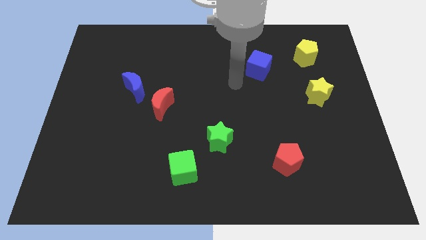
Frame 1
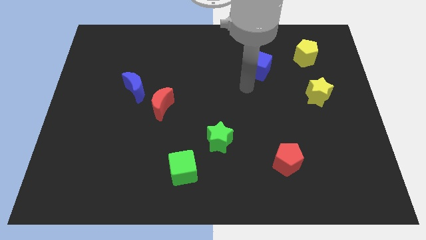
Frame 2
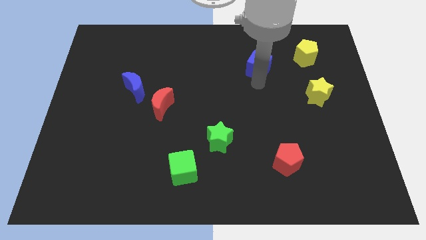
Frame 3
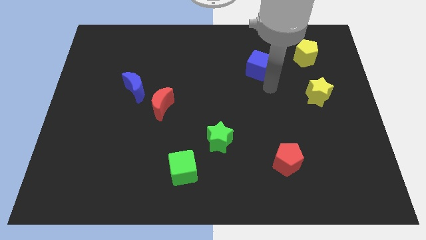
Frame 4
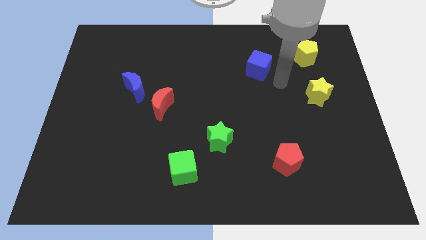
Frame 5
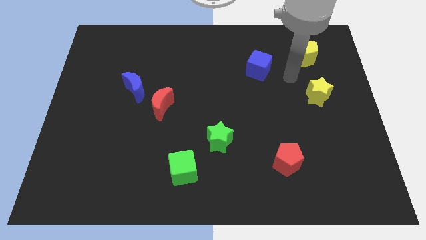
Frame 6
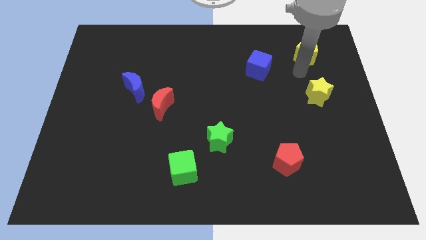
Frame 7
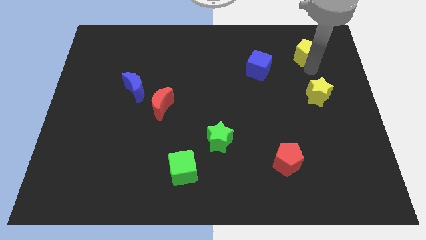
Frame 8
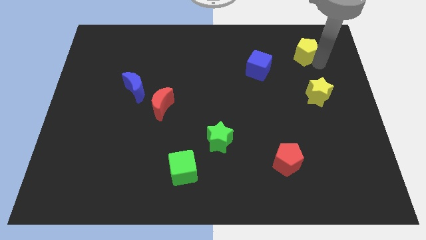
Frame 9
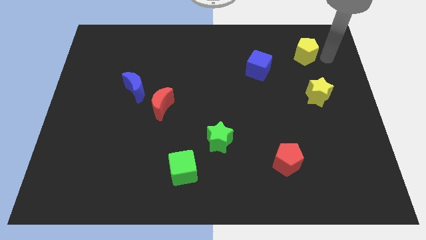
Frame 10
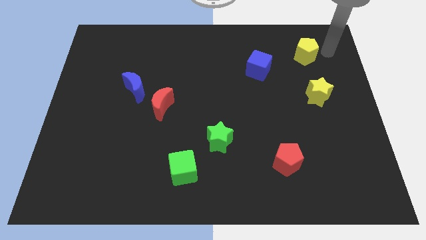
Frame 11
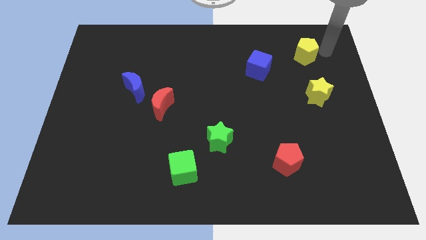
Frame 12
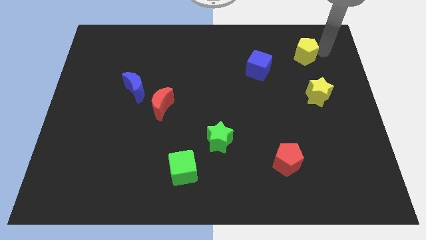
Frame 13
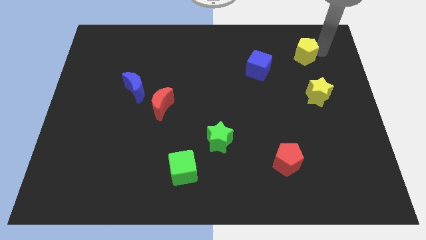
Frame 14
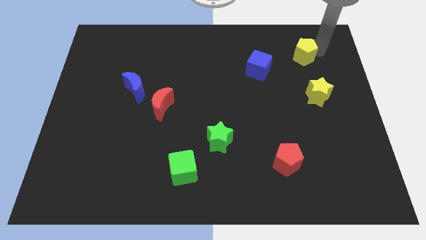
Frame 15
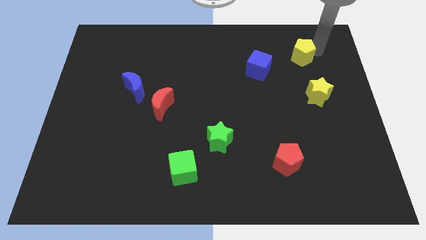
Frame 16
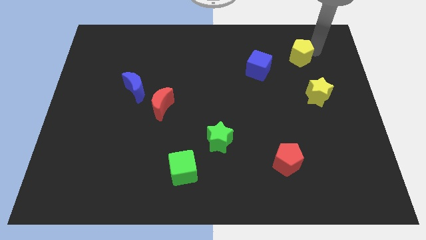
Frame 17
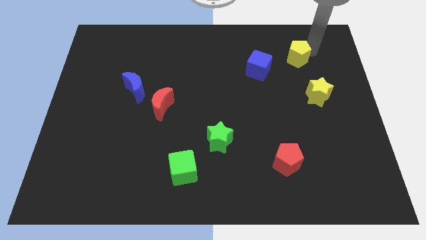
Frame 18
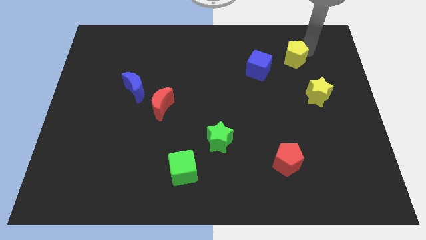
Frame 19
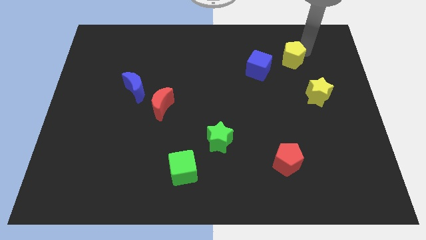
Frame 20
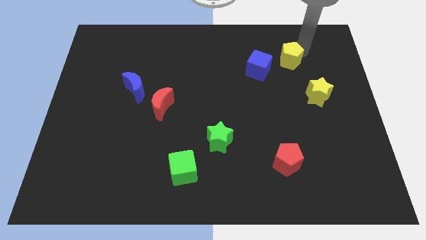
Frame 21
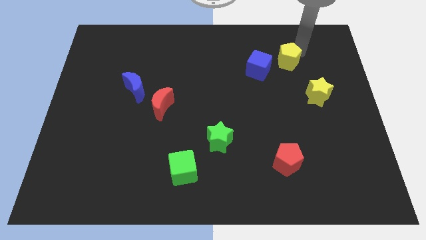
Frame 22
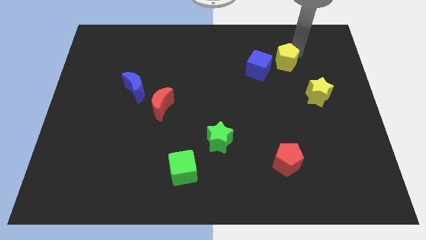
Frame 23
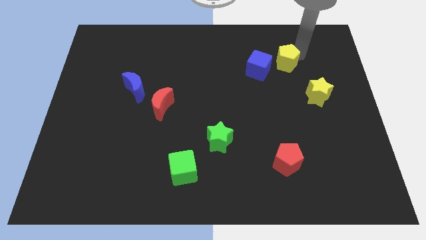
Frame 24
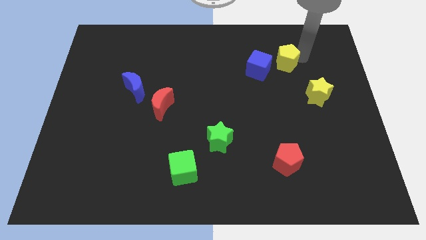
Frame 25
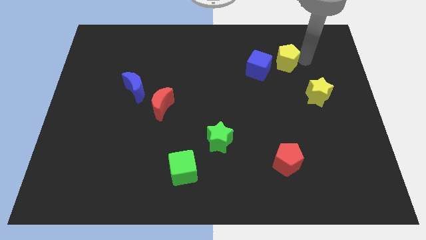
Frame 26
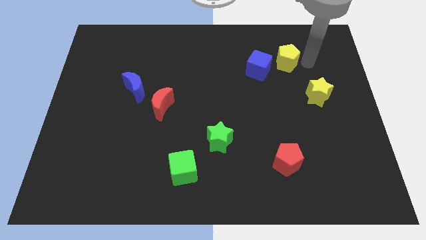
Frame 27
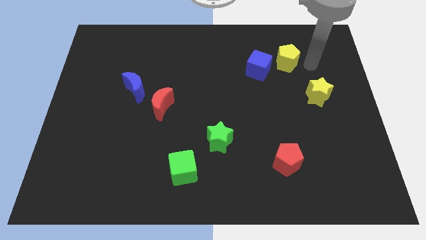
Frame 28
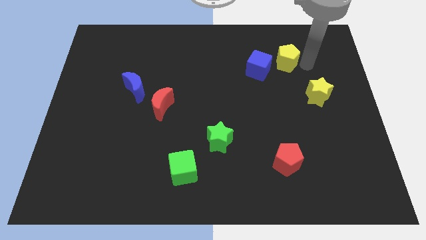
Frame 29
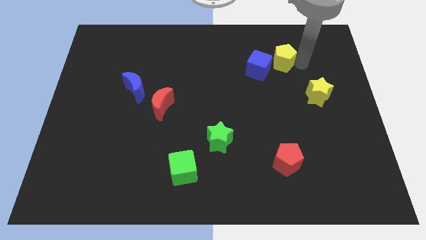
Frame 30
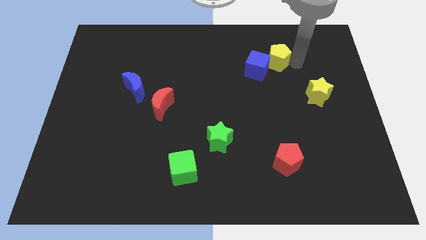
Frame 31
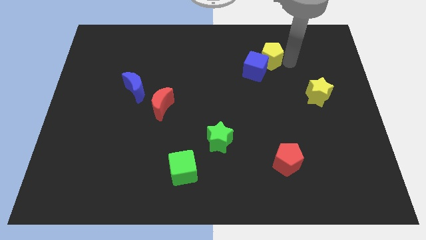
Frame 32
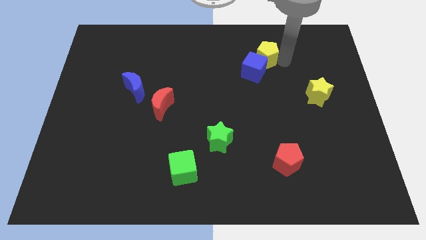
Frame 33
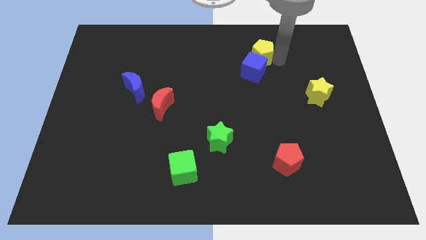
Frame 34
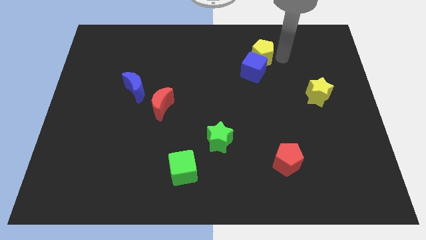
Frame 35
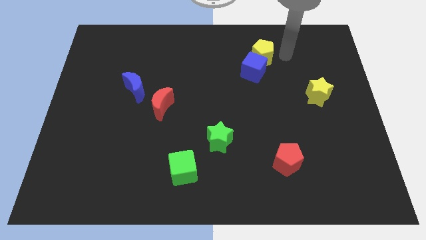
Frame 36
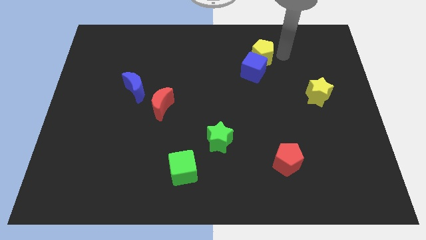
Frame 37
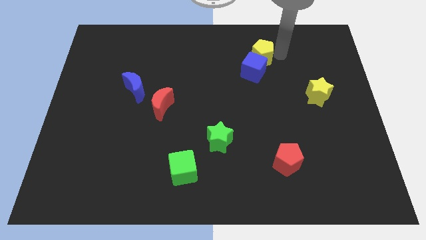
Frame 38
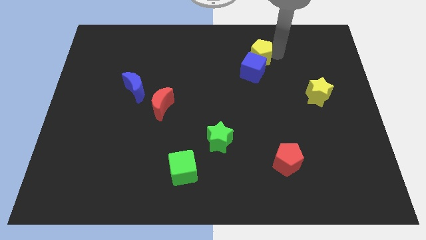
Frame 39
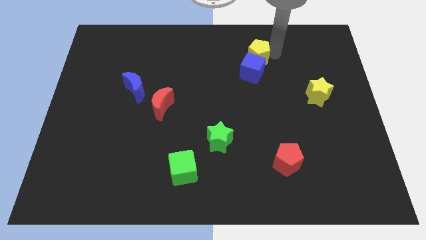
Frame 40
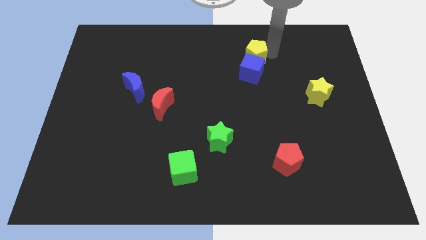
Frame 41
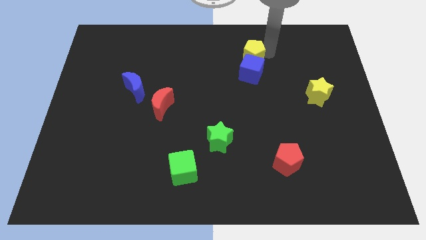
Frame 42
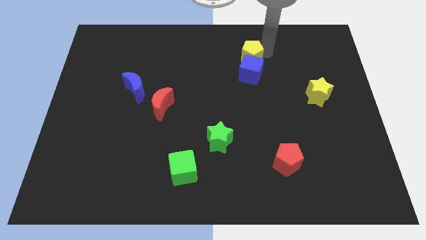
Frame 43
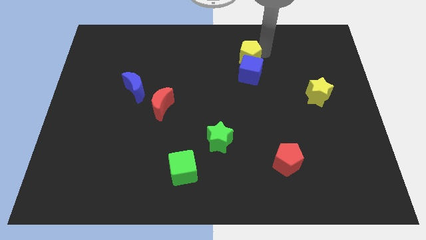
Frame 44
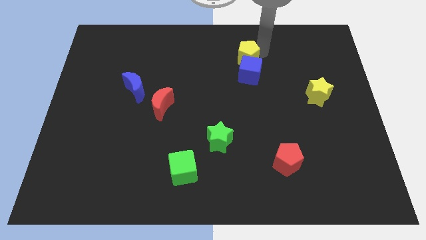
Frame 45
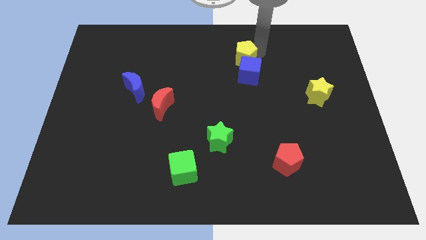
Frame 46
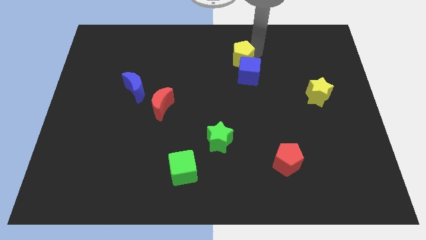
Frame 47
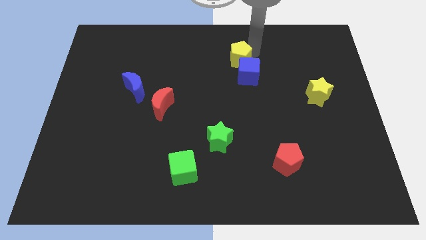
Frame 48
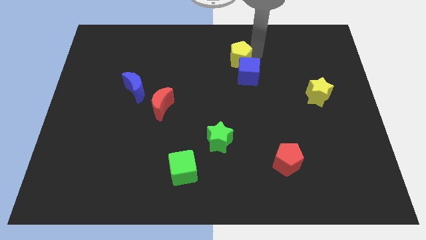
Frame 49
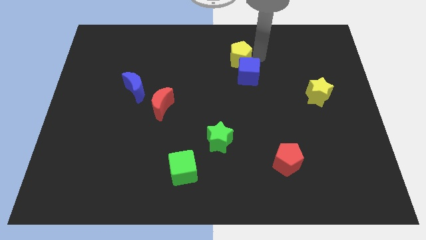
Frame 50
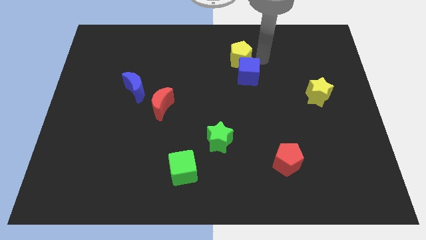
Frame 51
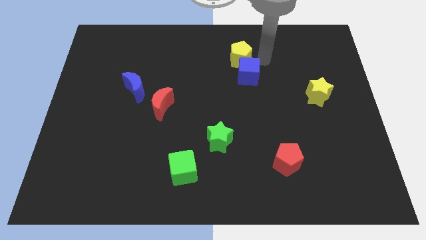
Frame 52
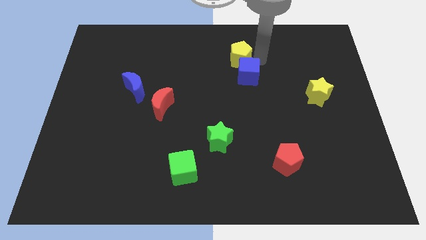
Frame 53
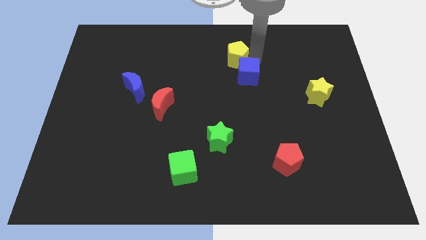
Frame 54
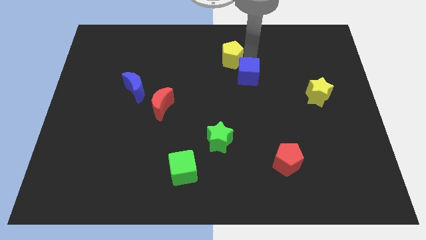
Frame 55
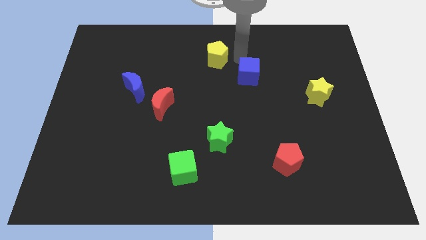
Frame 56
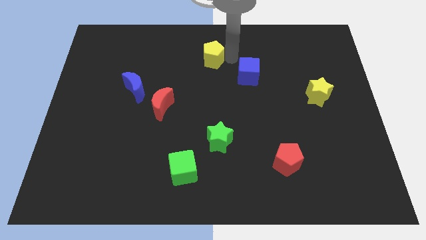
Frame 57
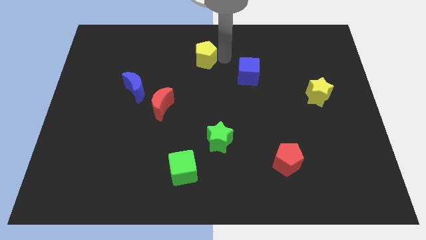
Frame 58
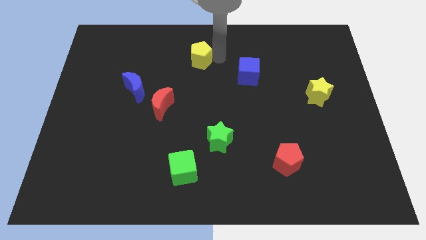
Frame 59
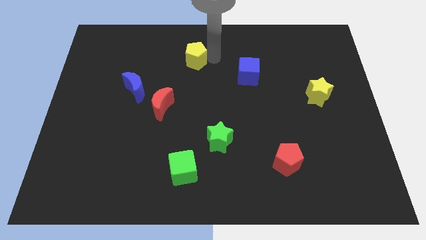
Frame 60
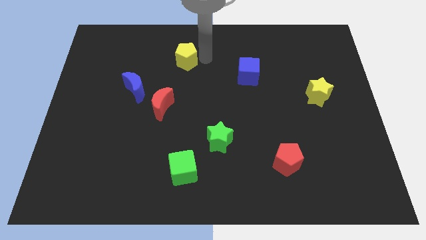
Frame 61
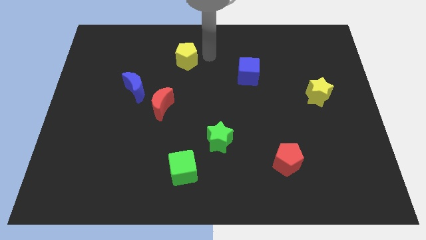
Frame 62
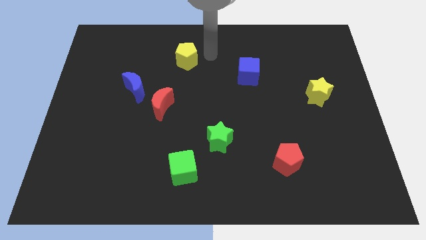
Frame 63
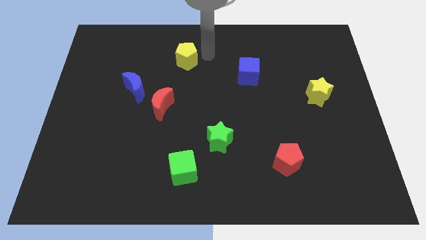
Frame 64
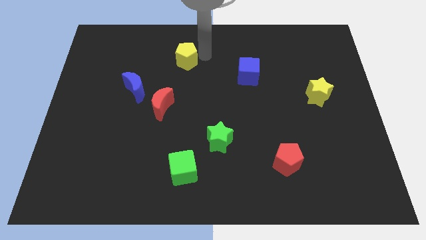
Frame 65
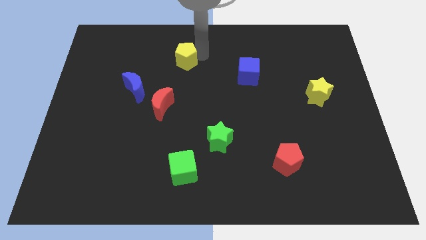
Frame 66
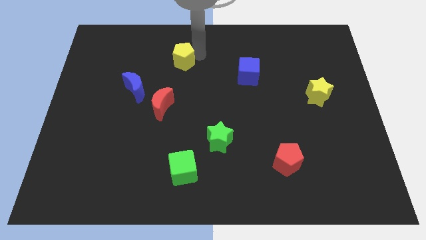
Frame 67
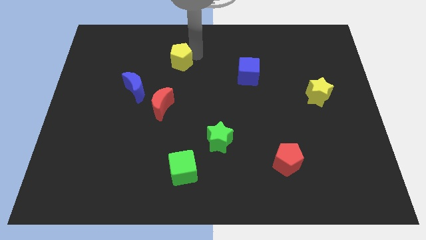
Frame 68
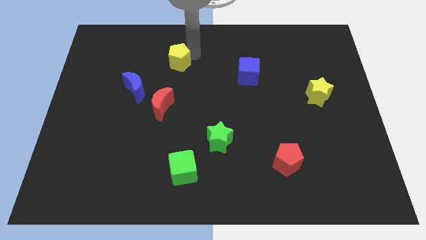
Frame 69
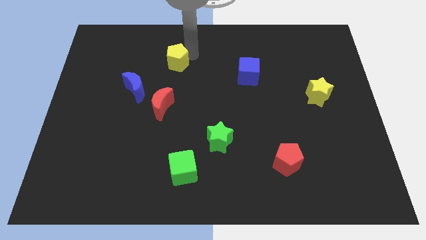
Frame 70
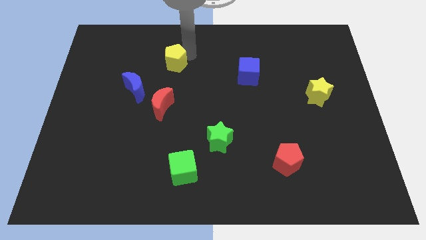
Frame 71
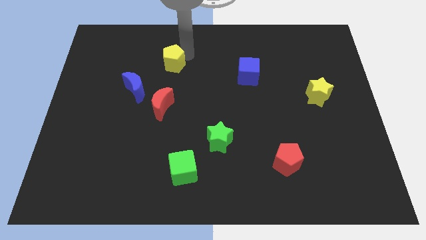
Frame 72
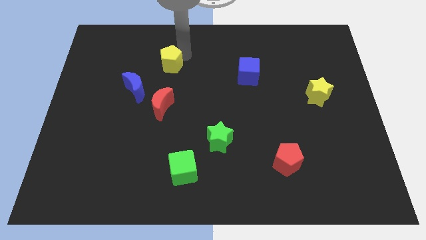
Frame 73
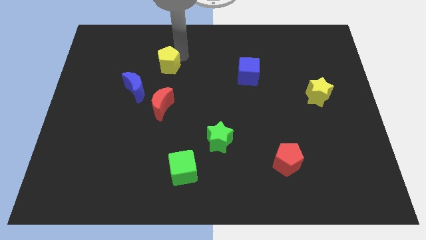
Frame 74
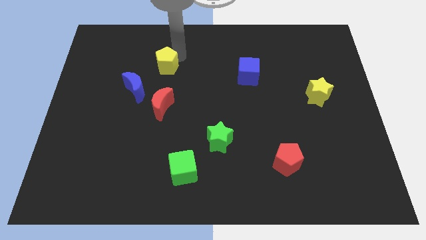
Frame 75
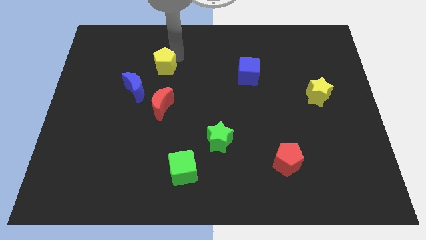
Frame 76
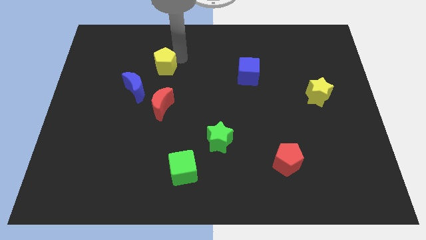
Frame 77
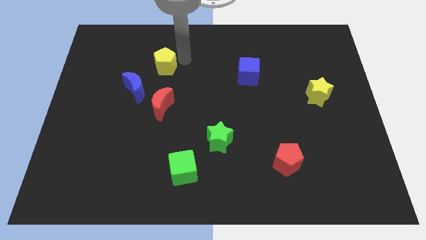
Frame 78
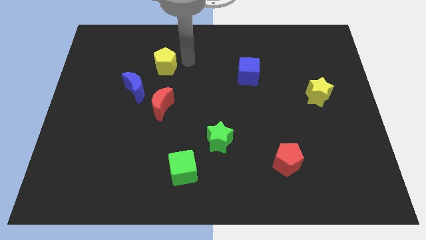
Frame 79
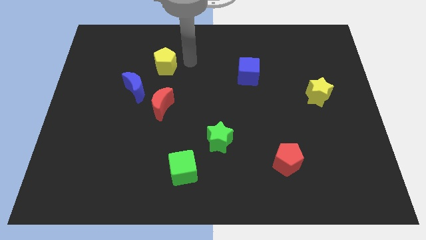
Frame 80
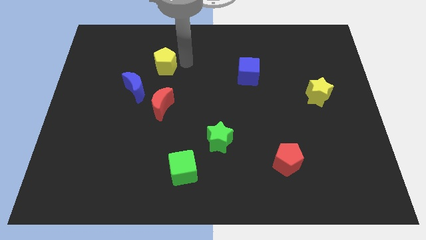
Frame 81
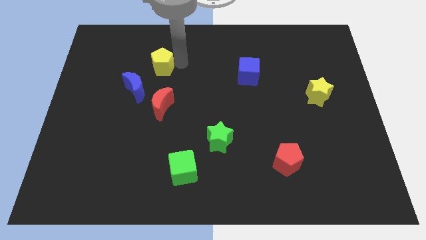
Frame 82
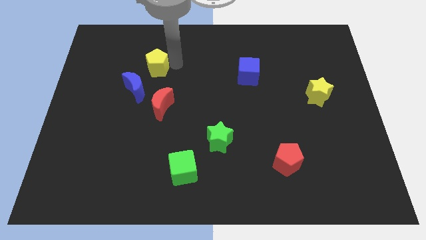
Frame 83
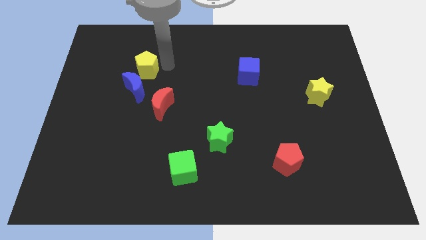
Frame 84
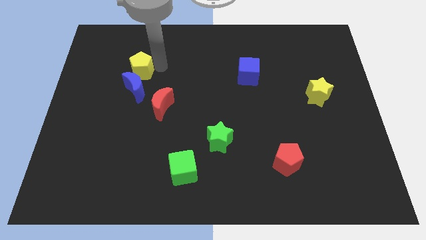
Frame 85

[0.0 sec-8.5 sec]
slide the yellow pentagon to the top left side of the blue moon

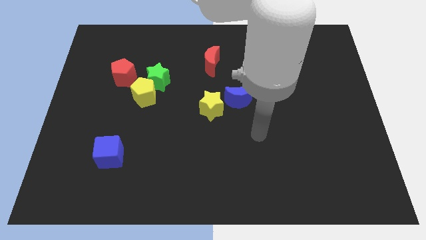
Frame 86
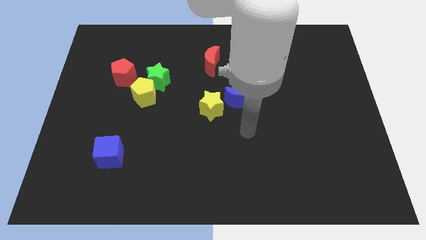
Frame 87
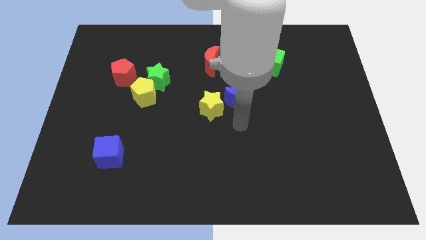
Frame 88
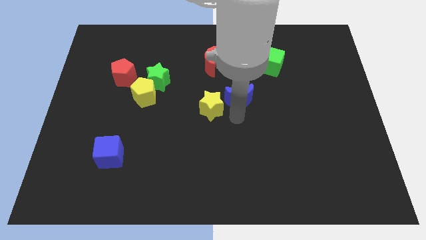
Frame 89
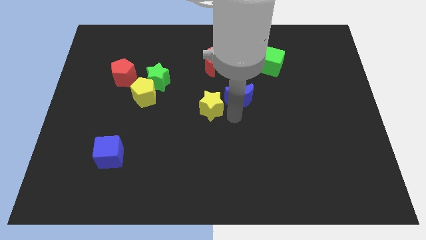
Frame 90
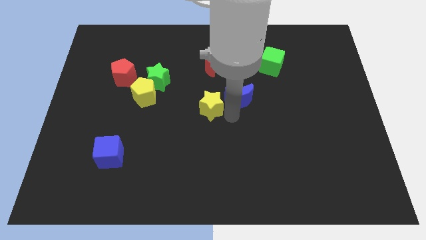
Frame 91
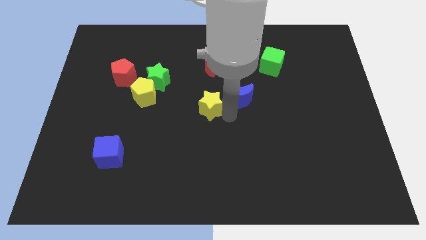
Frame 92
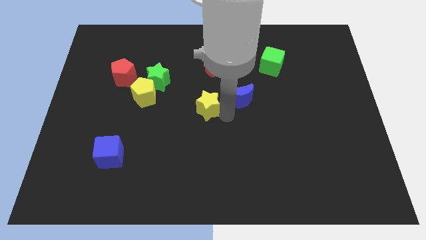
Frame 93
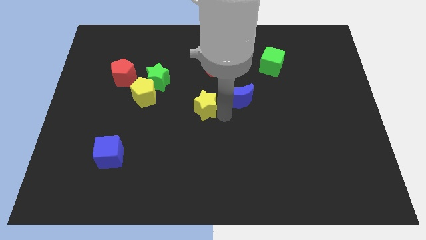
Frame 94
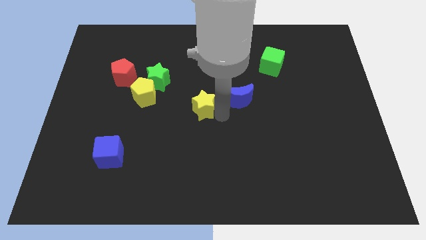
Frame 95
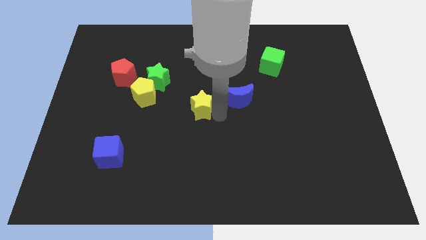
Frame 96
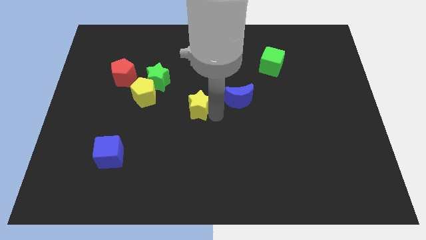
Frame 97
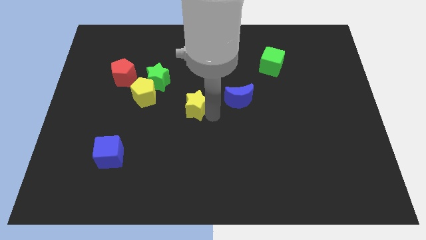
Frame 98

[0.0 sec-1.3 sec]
slide the yellow star diagonally down and to the right of the green star
